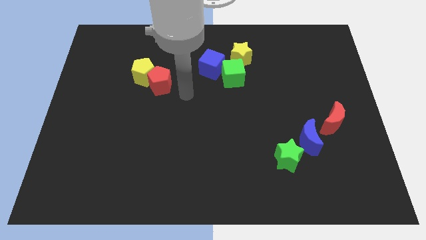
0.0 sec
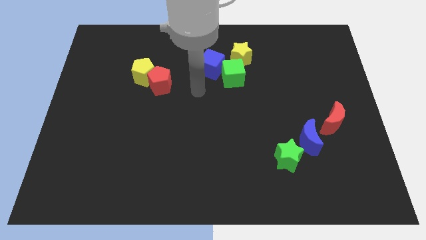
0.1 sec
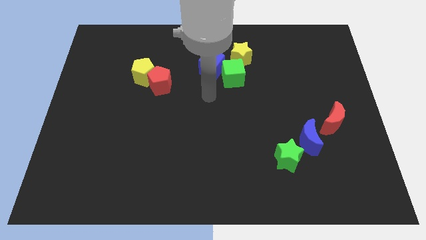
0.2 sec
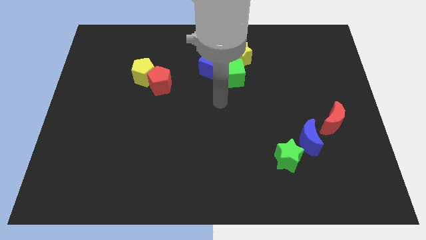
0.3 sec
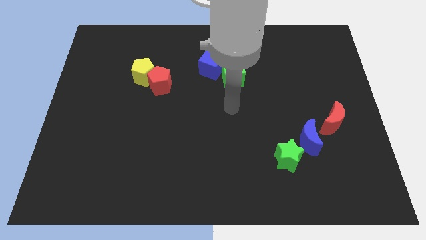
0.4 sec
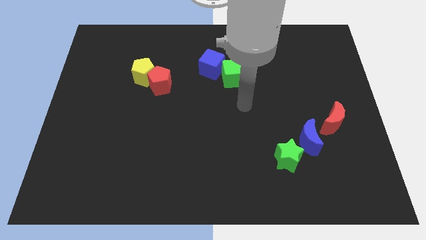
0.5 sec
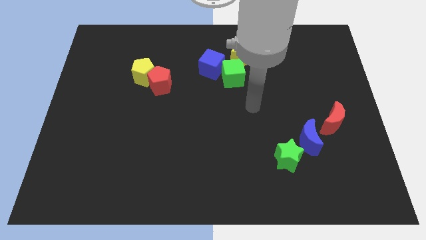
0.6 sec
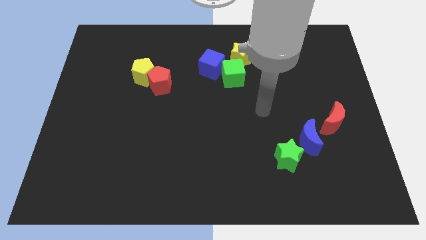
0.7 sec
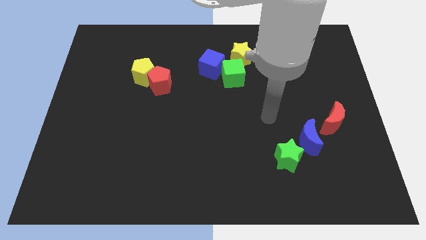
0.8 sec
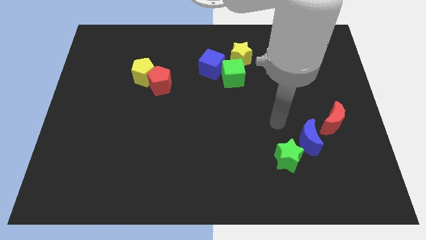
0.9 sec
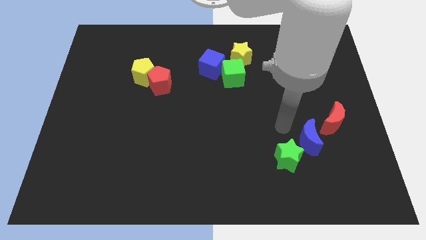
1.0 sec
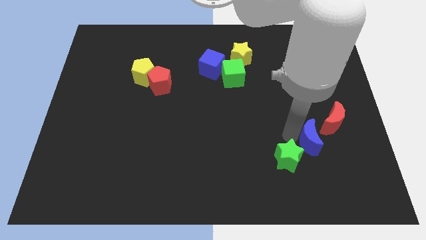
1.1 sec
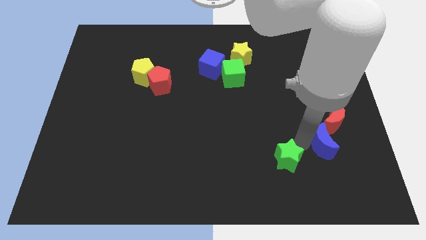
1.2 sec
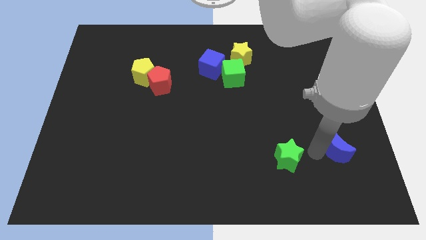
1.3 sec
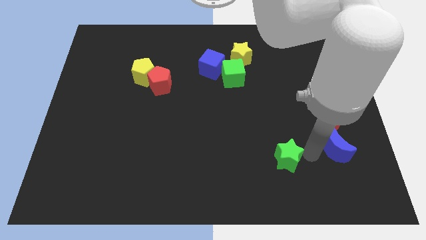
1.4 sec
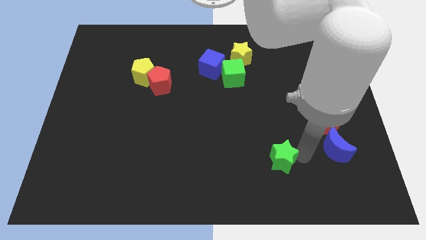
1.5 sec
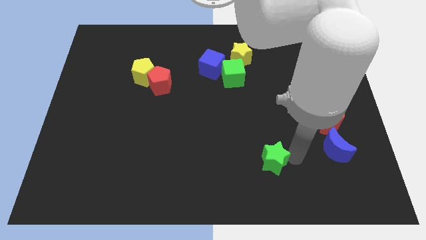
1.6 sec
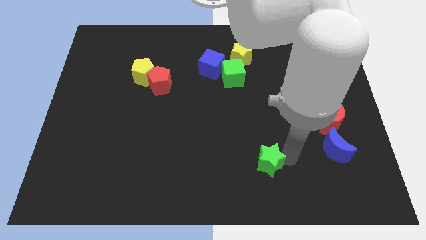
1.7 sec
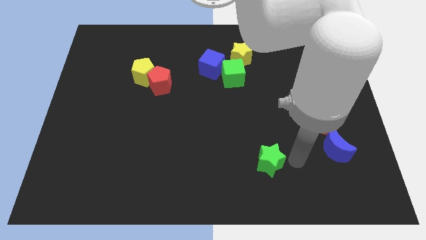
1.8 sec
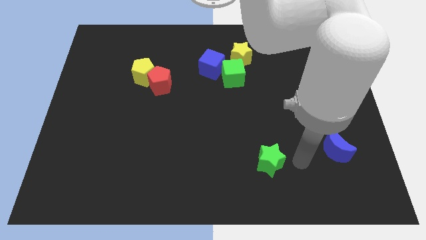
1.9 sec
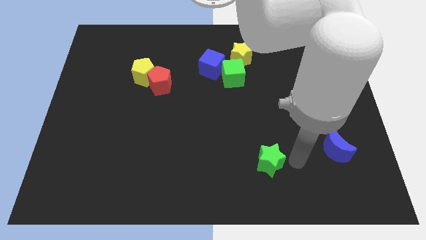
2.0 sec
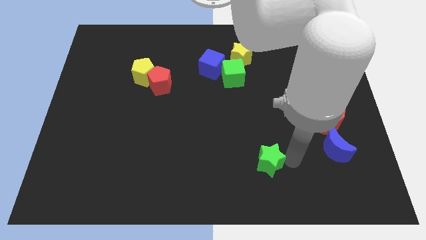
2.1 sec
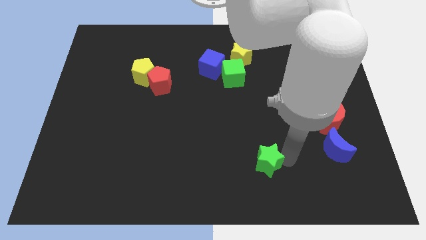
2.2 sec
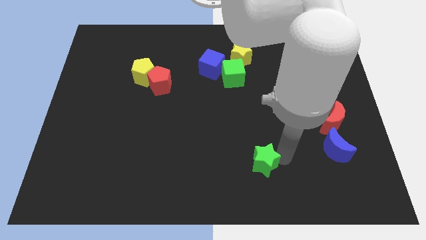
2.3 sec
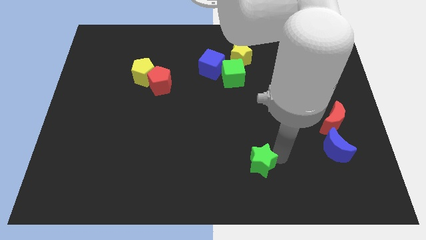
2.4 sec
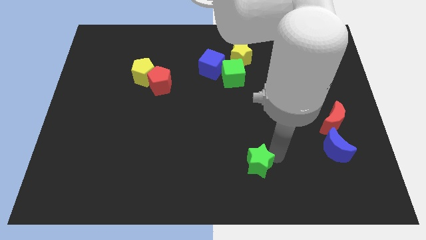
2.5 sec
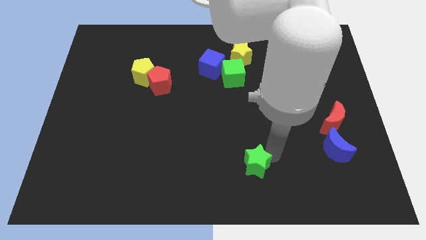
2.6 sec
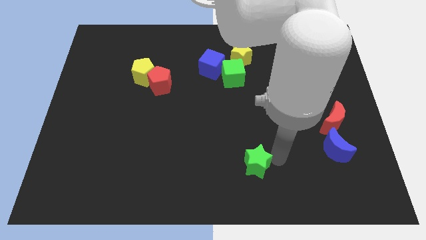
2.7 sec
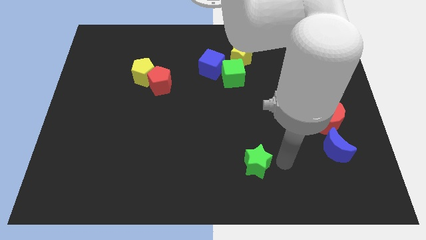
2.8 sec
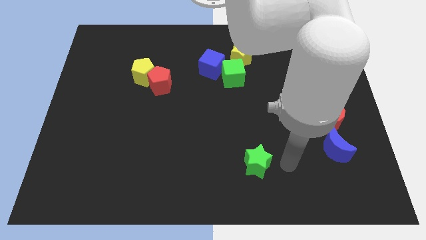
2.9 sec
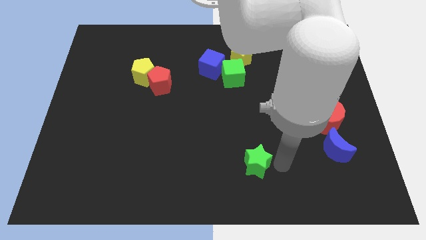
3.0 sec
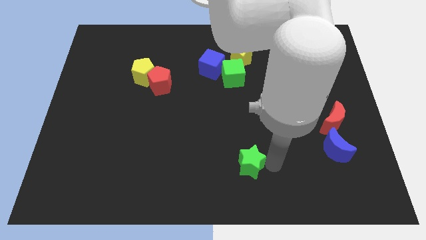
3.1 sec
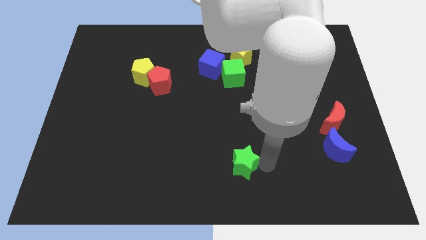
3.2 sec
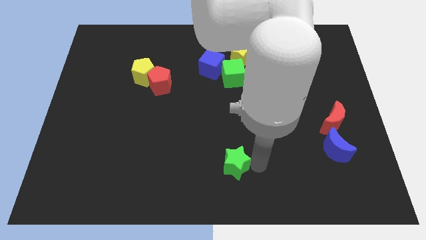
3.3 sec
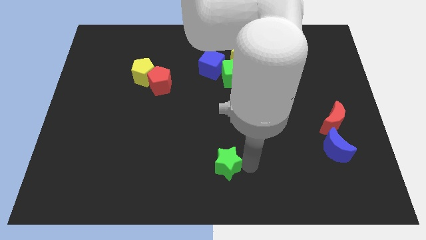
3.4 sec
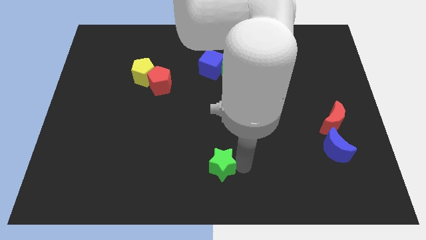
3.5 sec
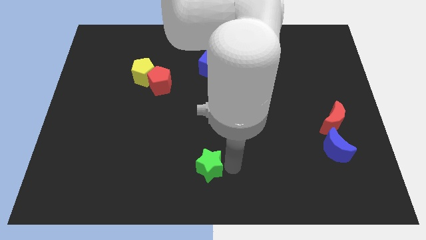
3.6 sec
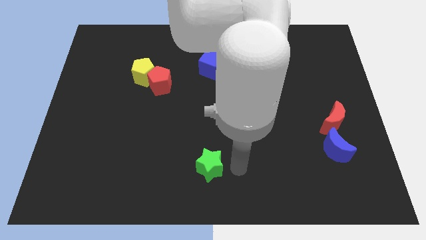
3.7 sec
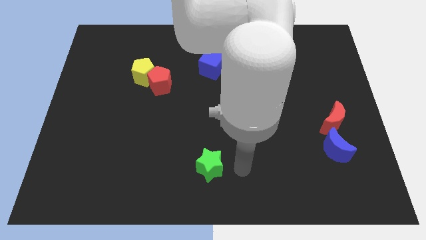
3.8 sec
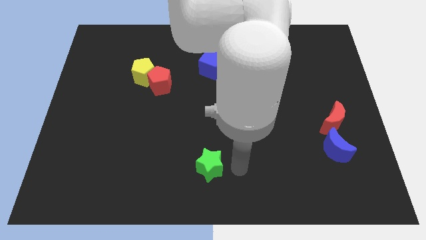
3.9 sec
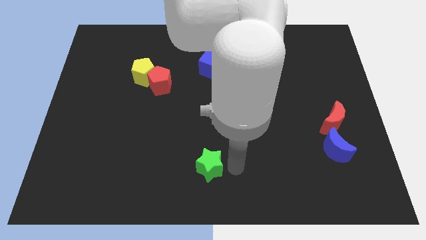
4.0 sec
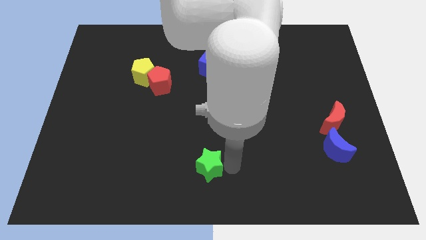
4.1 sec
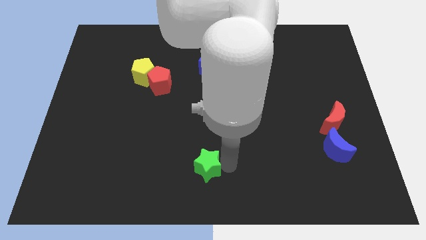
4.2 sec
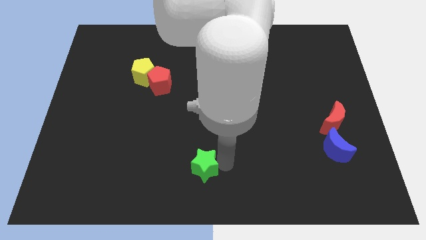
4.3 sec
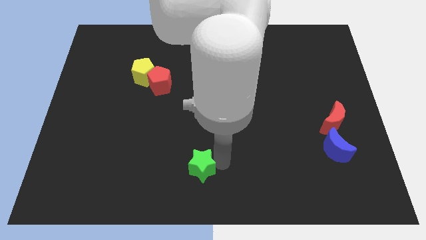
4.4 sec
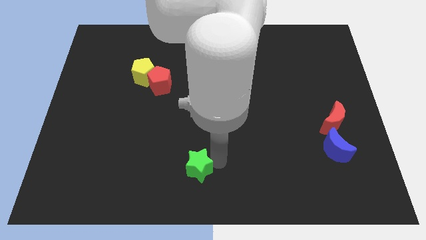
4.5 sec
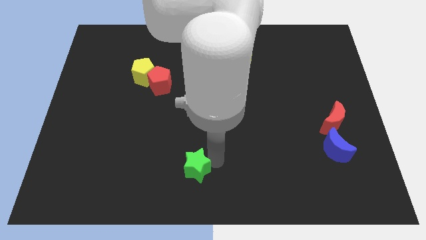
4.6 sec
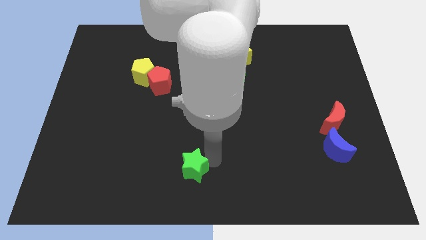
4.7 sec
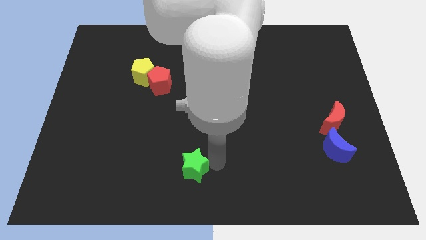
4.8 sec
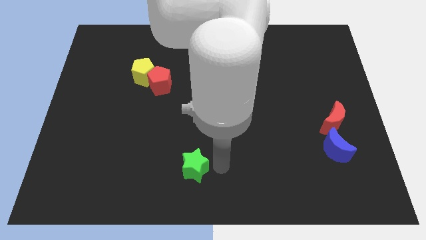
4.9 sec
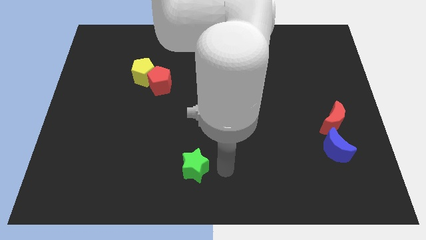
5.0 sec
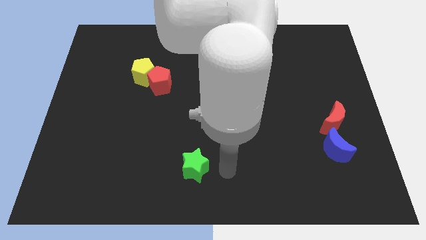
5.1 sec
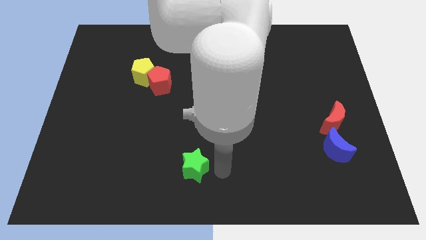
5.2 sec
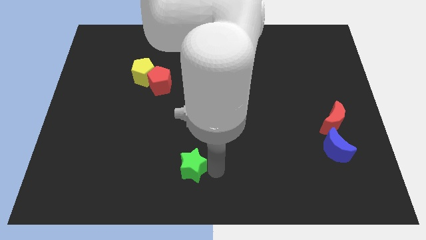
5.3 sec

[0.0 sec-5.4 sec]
push the green star left

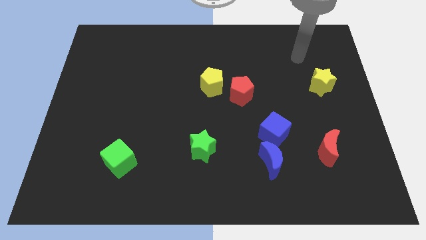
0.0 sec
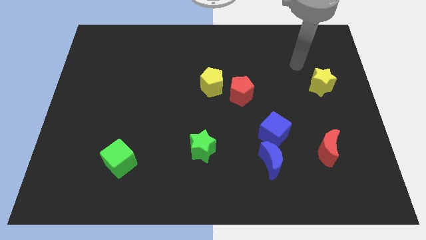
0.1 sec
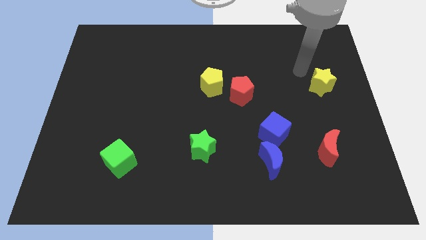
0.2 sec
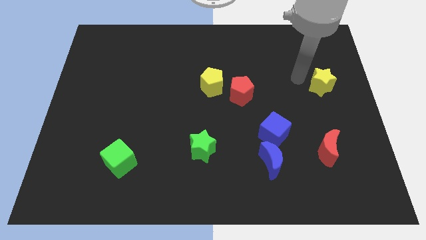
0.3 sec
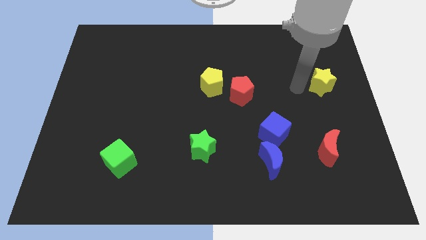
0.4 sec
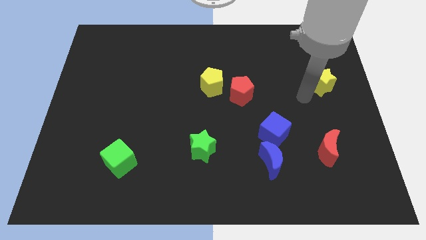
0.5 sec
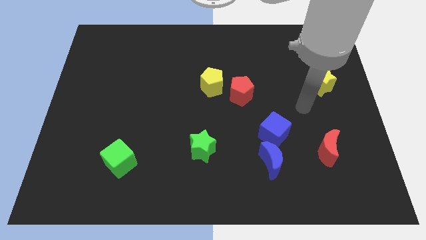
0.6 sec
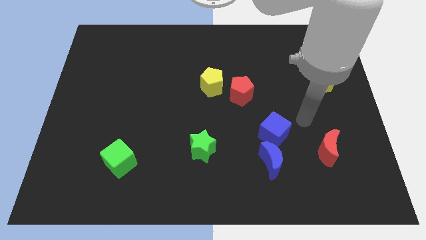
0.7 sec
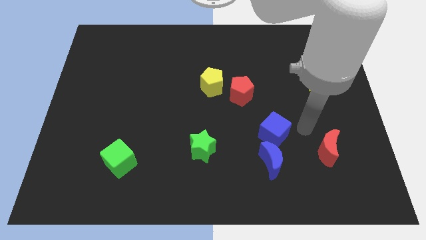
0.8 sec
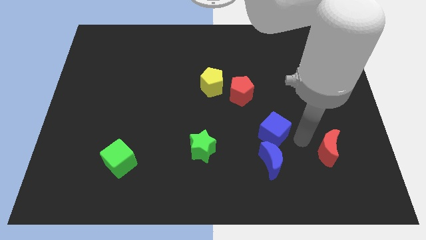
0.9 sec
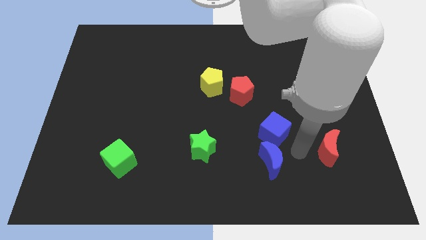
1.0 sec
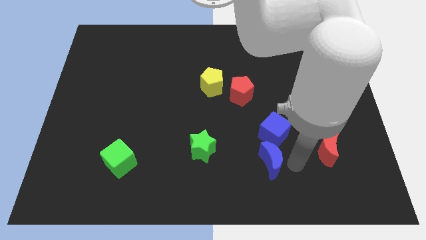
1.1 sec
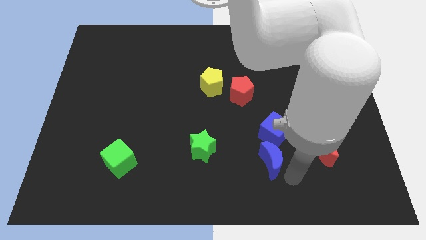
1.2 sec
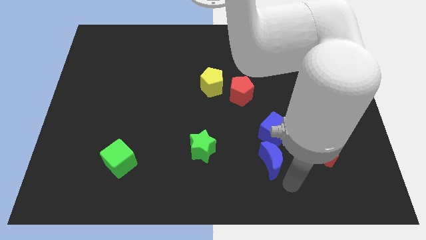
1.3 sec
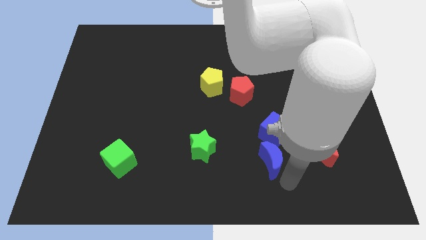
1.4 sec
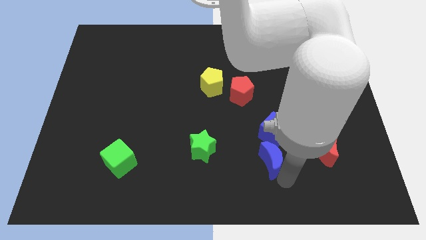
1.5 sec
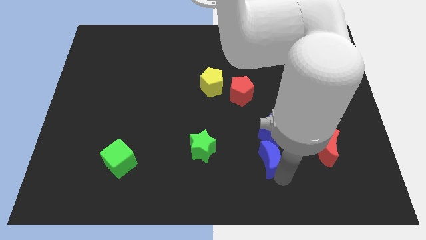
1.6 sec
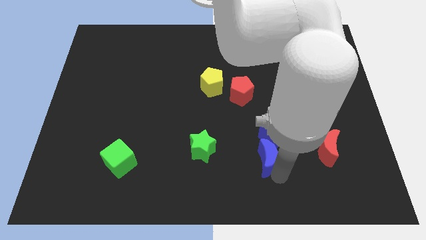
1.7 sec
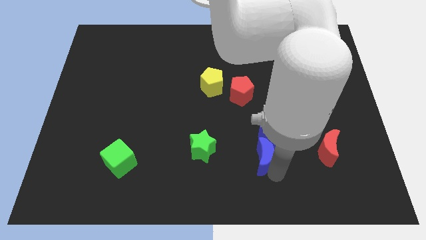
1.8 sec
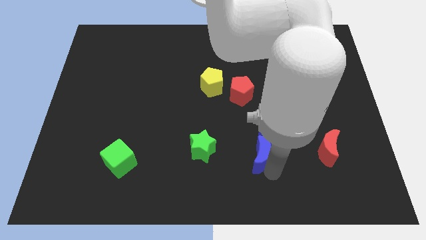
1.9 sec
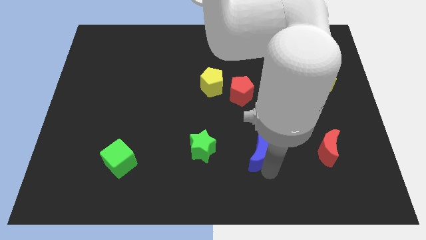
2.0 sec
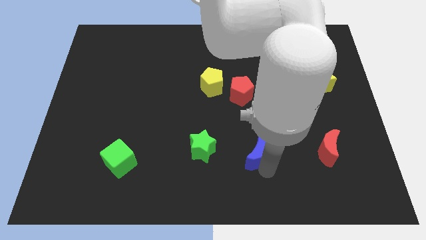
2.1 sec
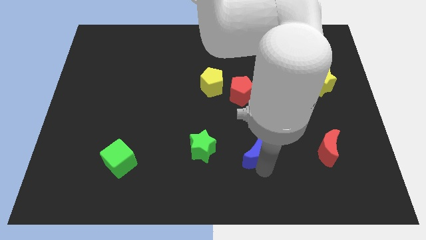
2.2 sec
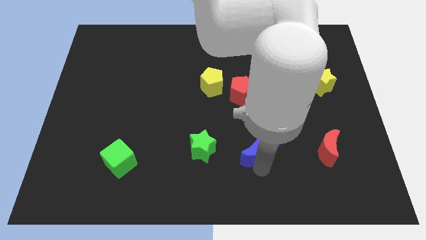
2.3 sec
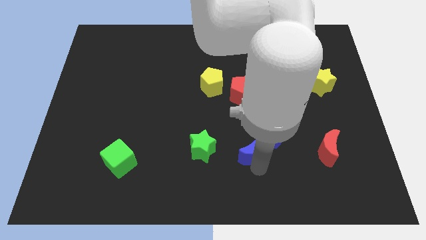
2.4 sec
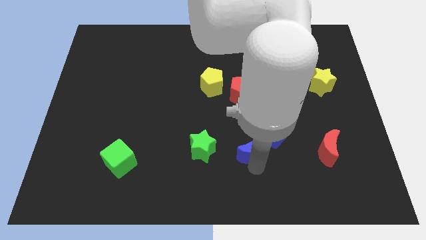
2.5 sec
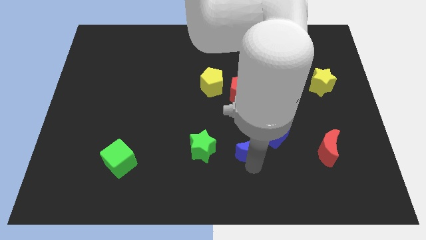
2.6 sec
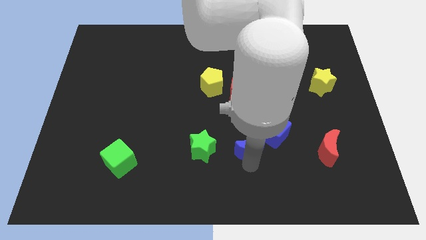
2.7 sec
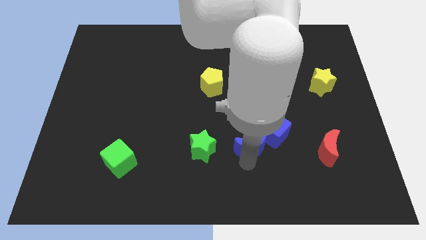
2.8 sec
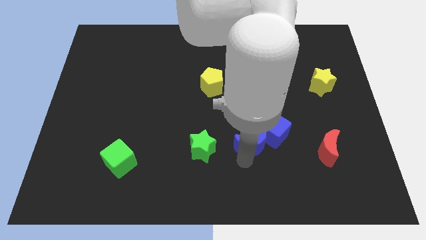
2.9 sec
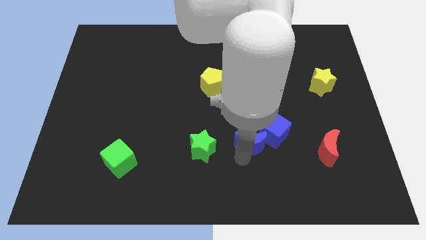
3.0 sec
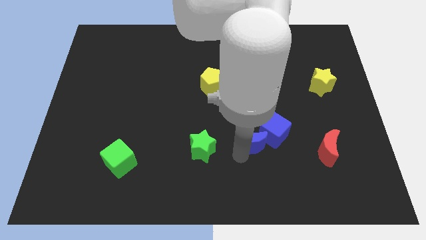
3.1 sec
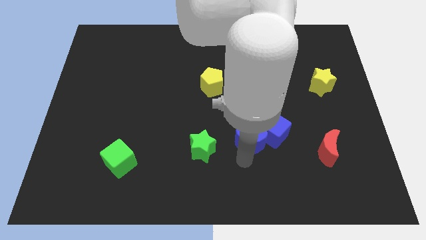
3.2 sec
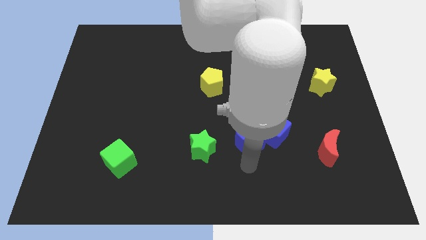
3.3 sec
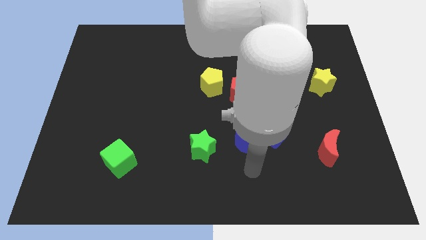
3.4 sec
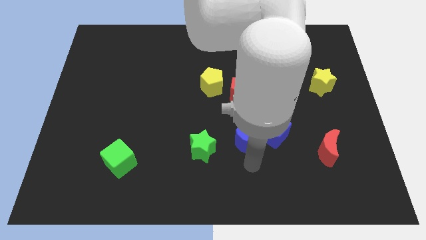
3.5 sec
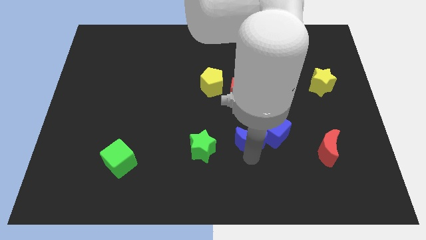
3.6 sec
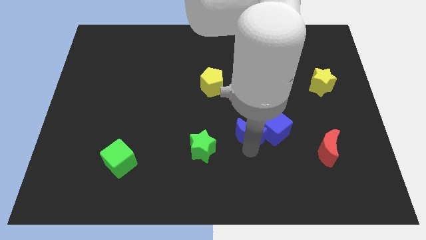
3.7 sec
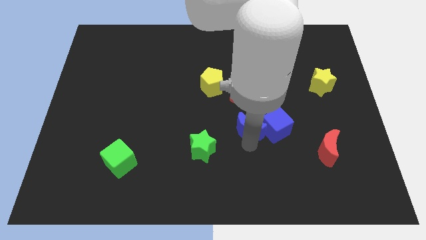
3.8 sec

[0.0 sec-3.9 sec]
slightly push the blue moon up
